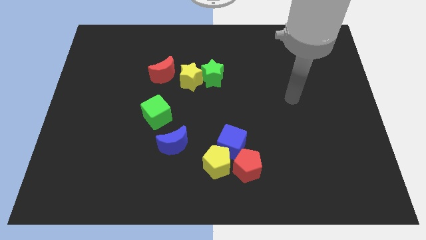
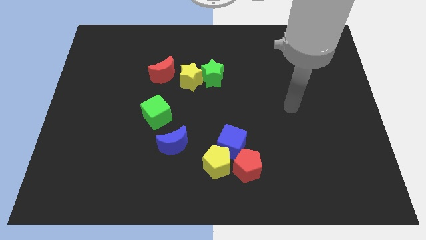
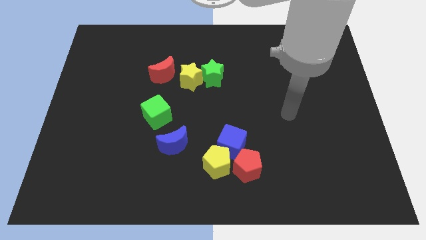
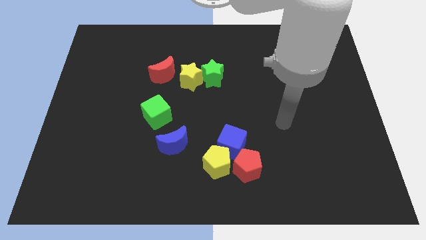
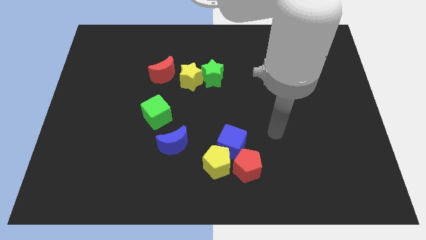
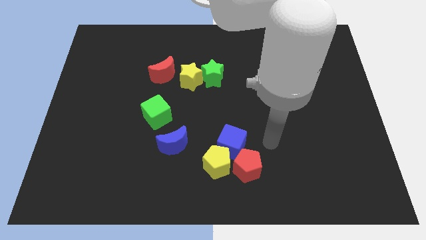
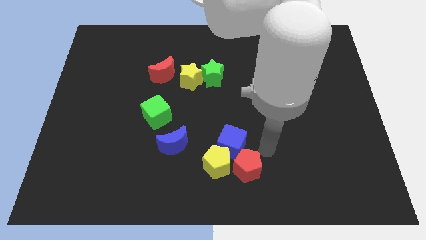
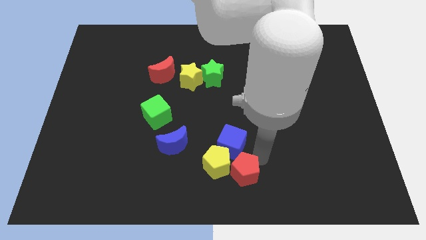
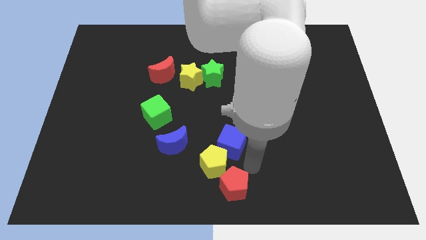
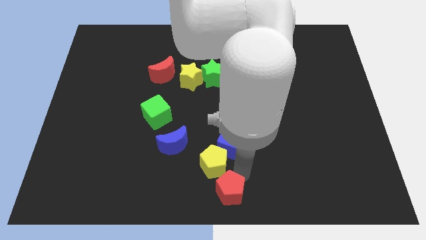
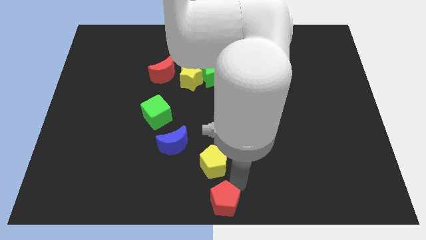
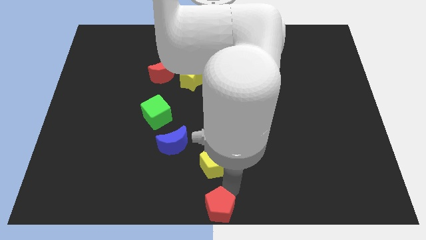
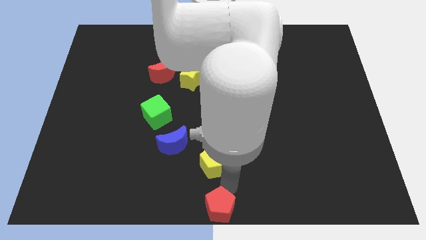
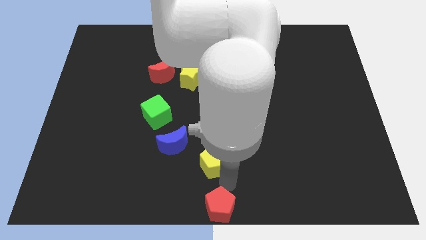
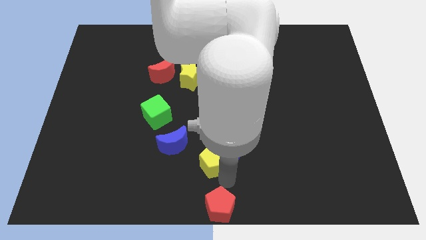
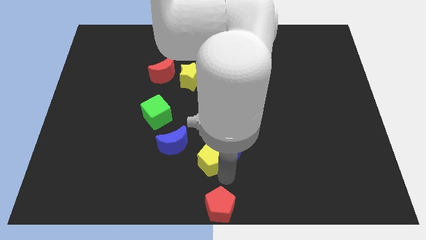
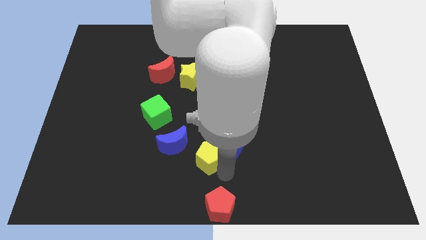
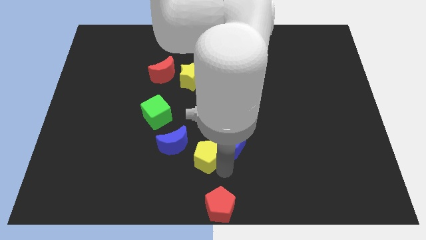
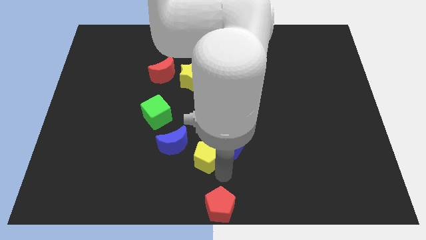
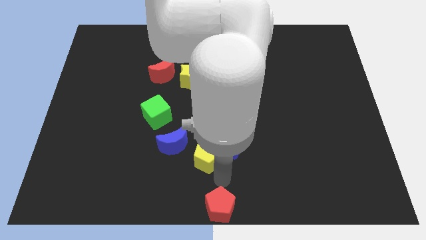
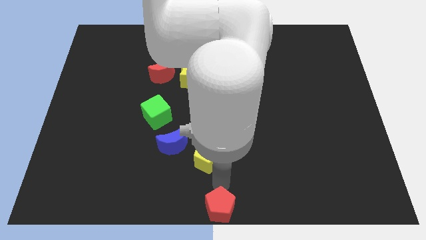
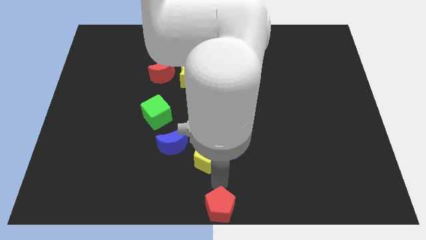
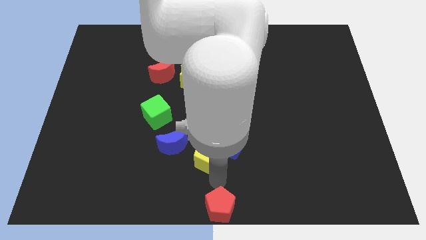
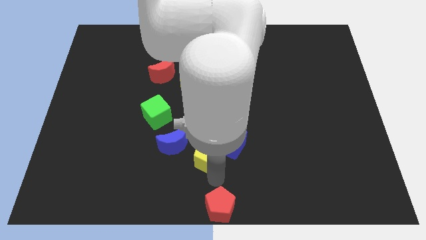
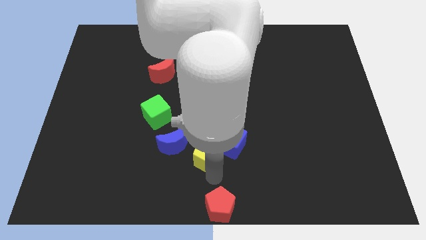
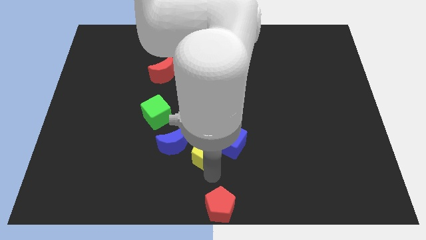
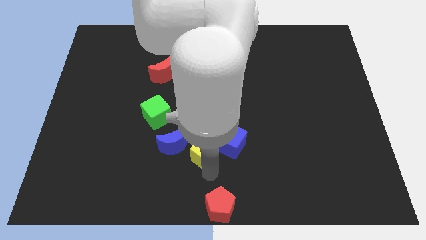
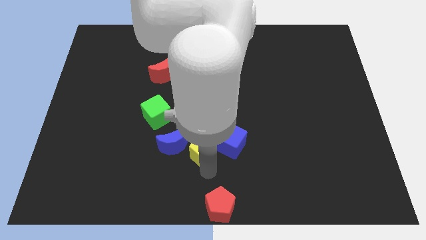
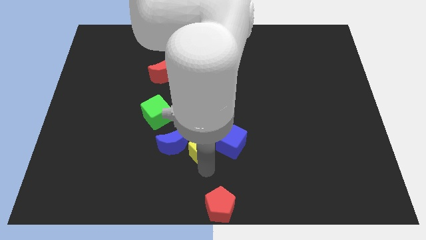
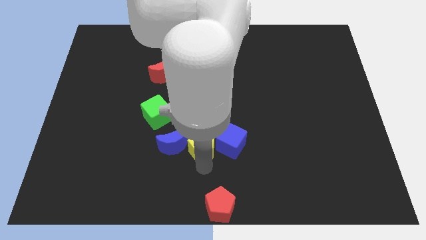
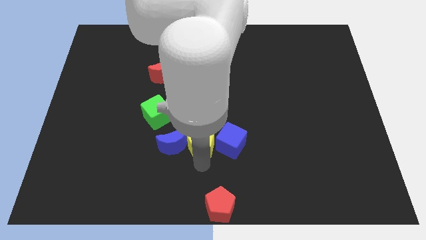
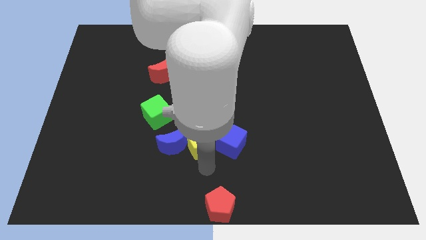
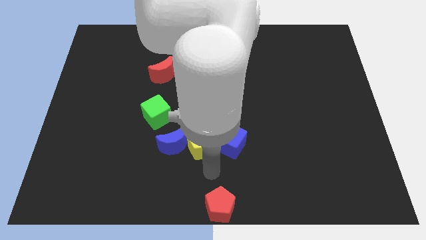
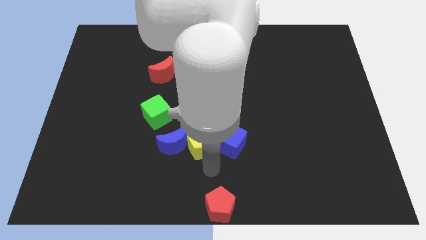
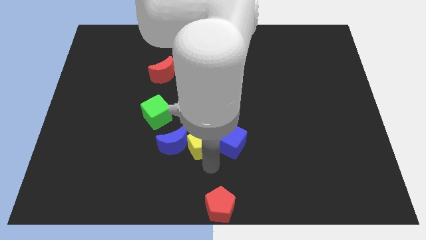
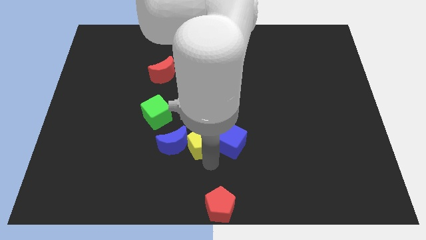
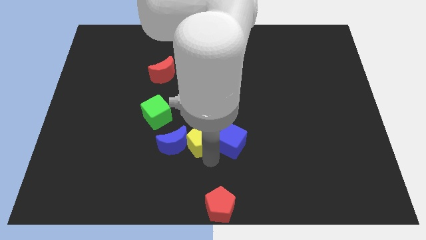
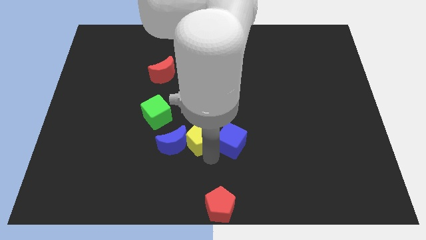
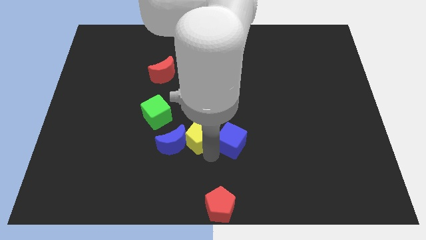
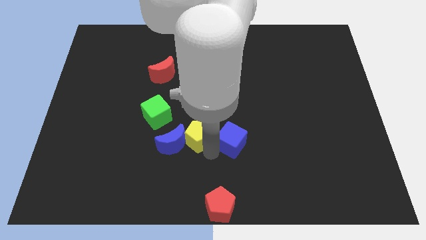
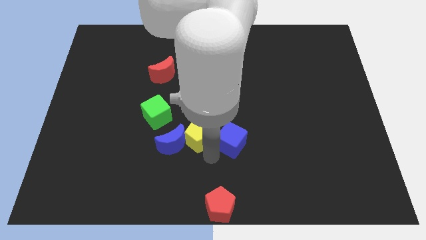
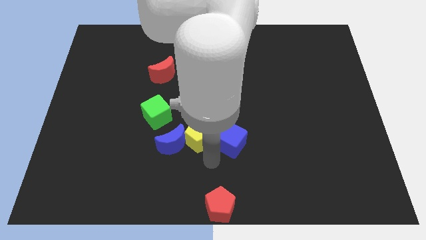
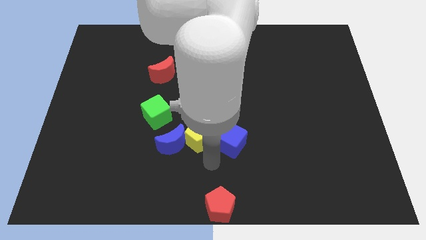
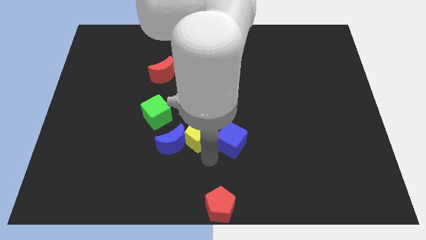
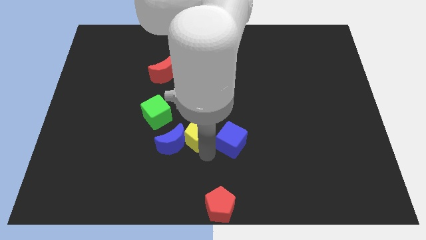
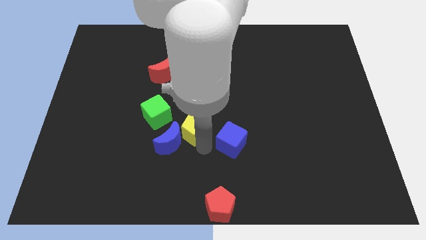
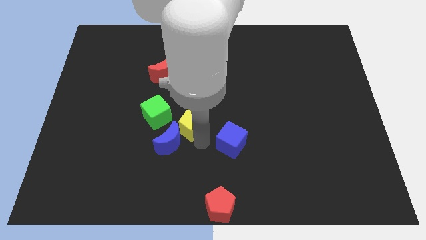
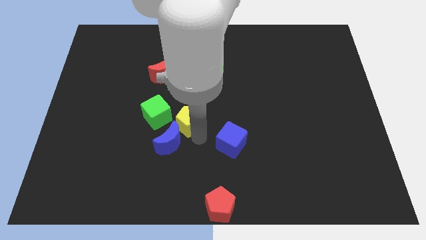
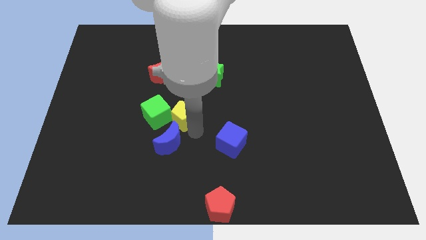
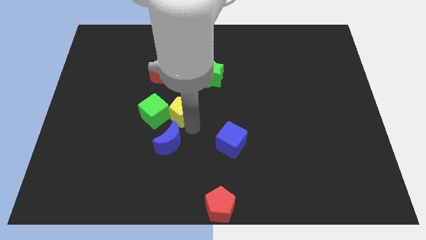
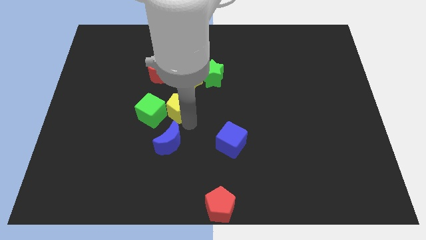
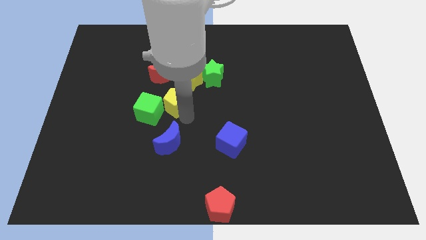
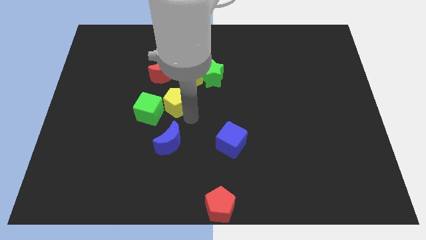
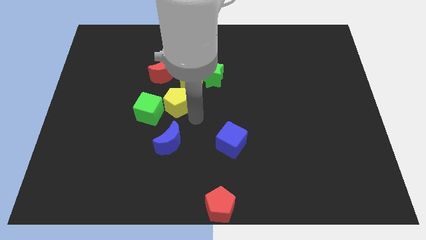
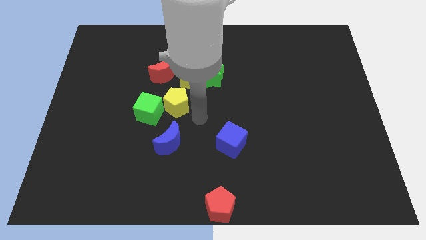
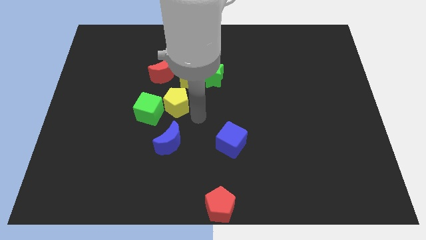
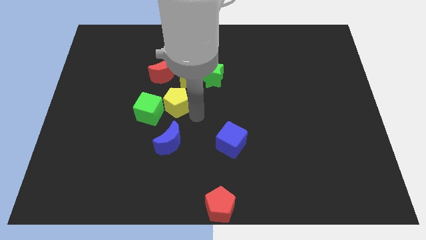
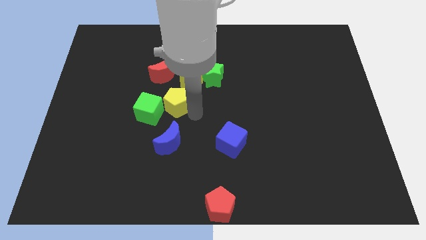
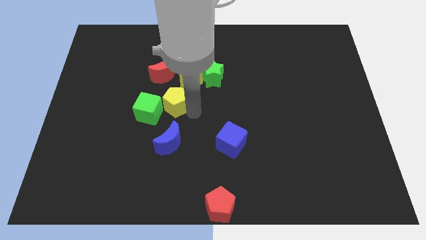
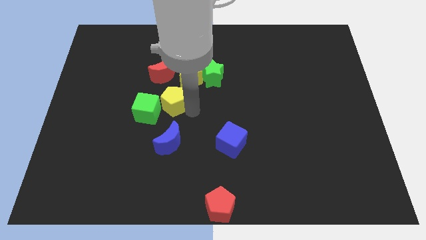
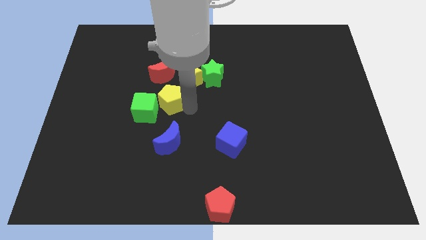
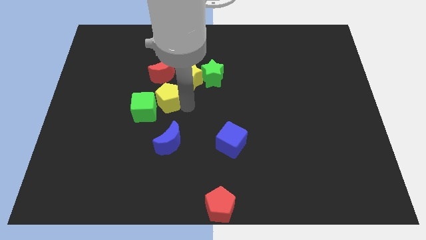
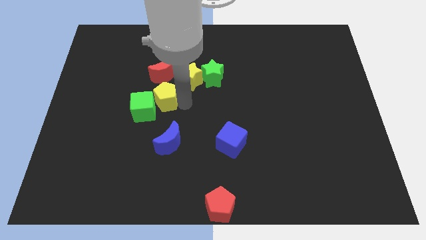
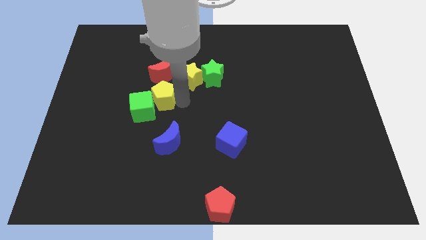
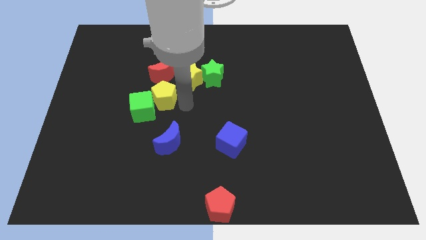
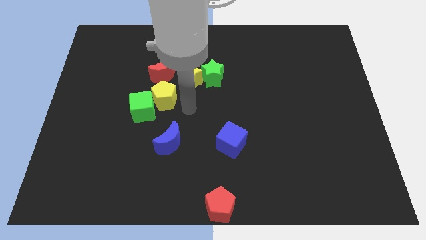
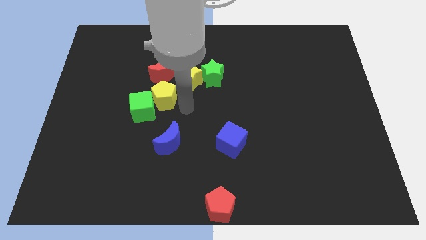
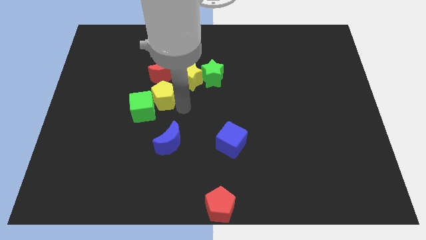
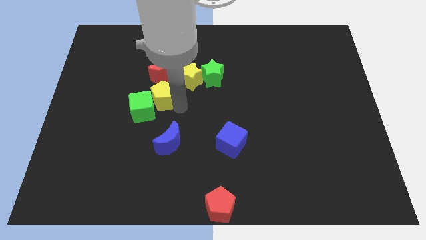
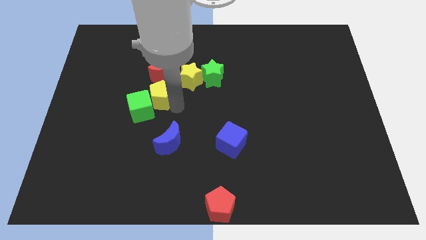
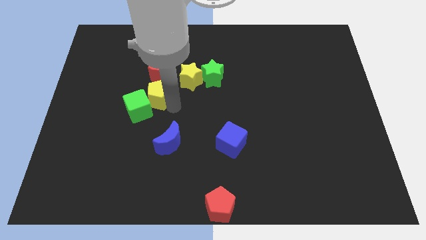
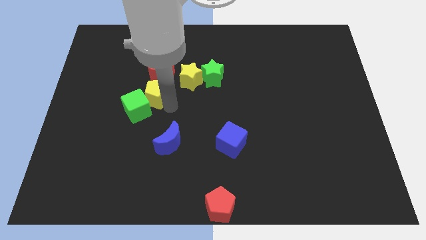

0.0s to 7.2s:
move the yellow pentagon diagonally down and to the left of the red moon

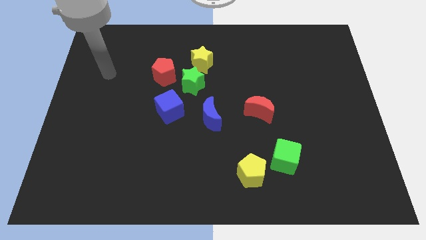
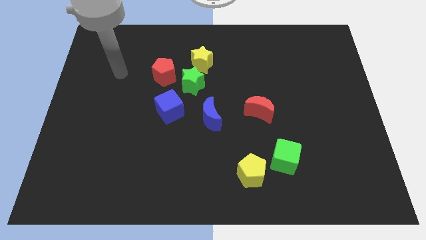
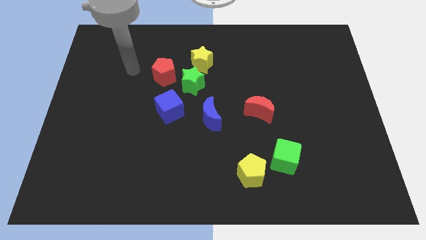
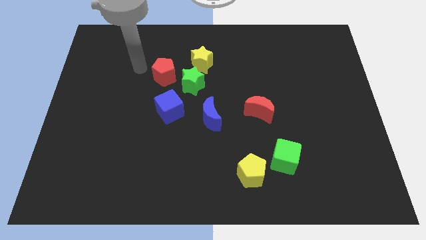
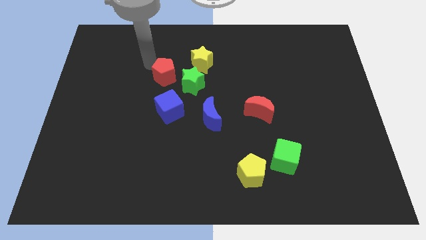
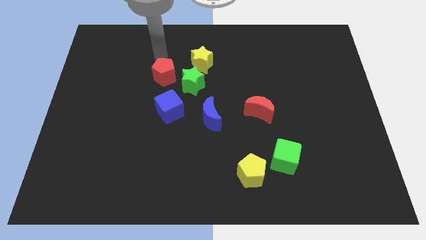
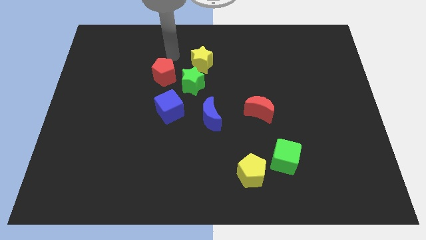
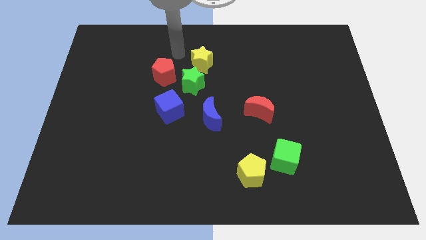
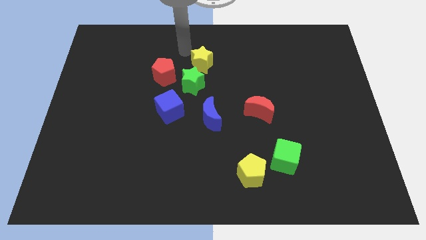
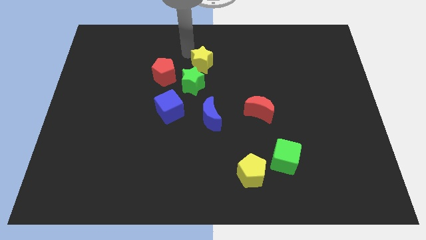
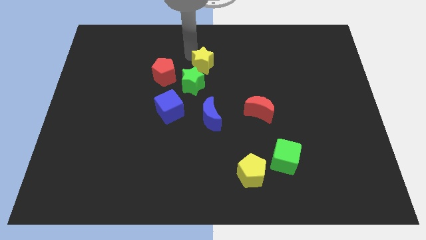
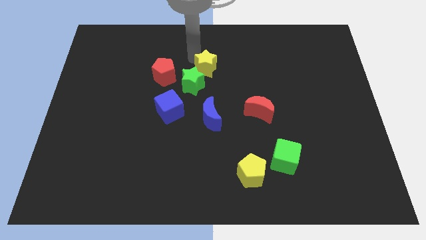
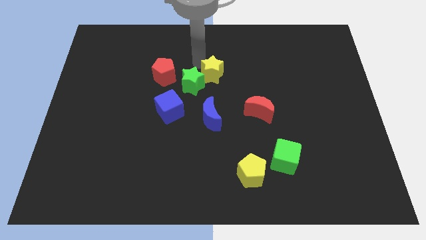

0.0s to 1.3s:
put the yellow star right of the green star
